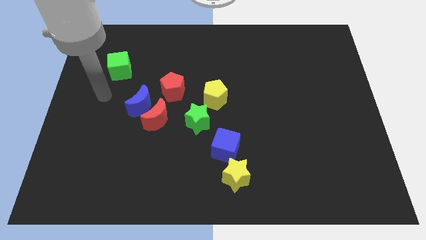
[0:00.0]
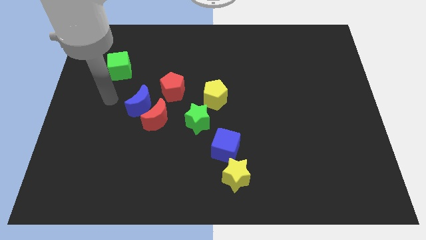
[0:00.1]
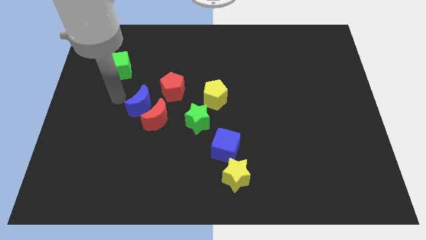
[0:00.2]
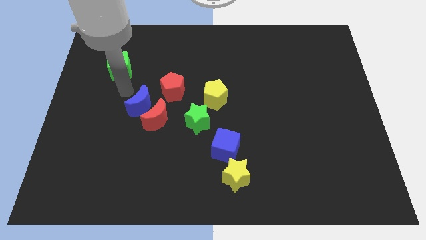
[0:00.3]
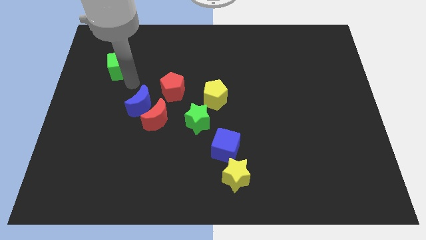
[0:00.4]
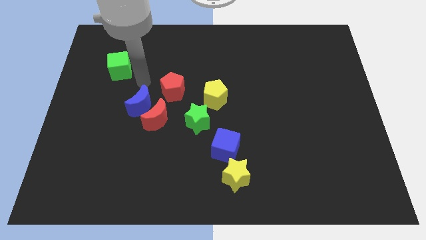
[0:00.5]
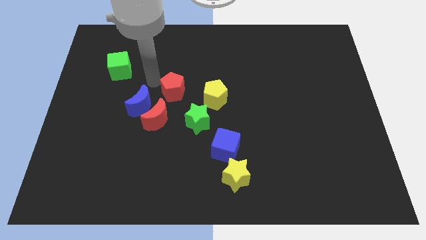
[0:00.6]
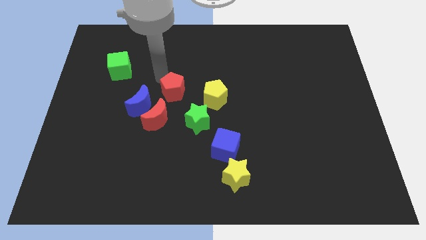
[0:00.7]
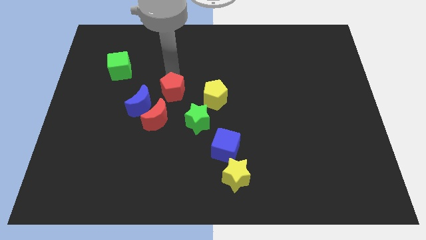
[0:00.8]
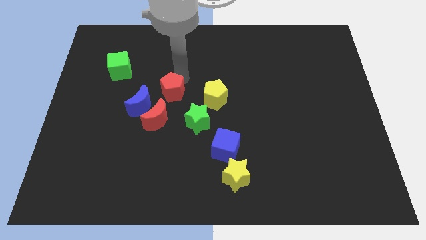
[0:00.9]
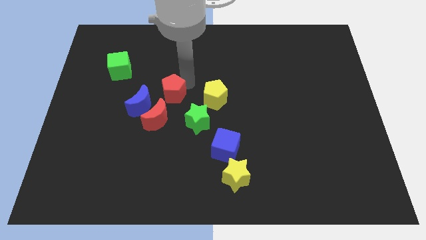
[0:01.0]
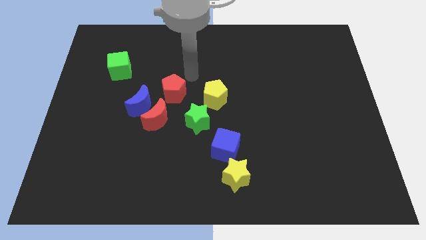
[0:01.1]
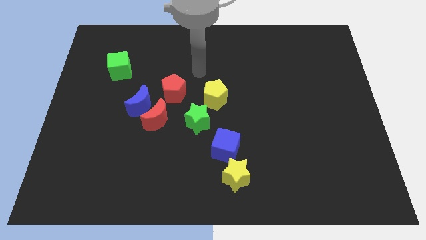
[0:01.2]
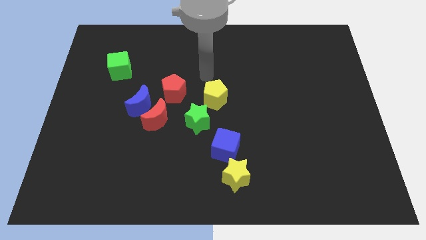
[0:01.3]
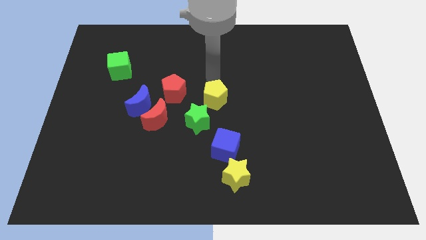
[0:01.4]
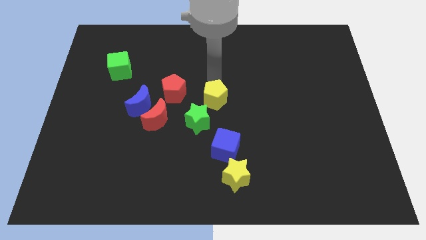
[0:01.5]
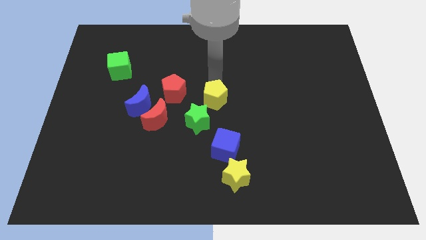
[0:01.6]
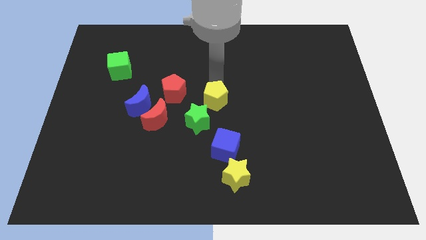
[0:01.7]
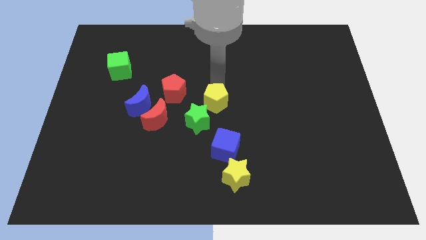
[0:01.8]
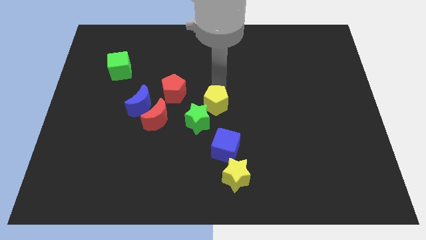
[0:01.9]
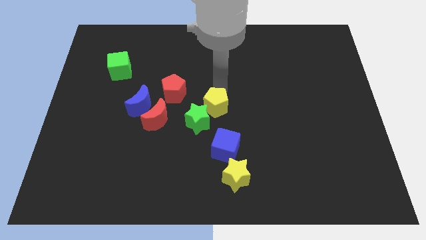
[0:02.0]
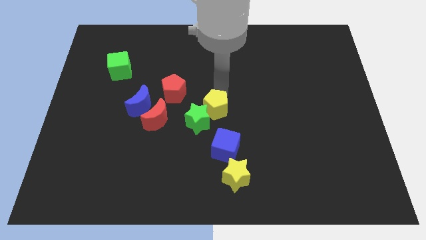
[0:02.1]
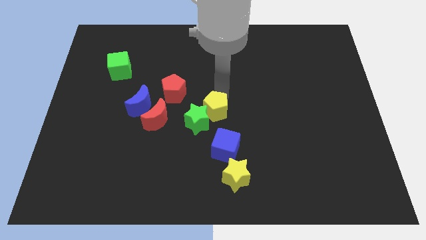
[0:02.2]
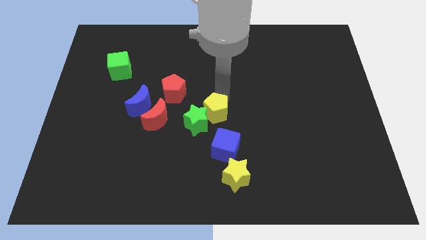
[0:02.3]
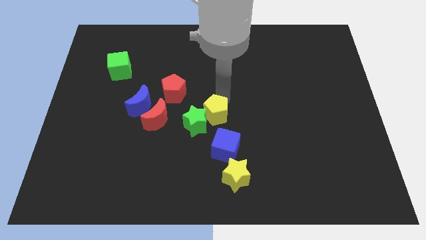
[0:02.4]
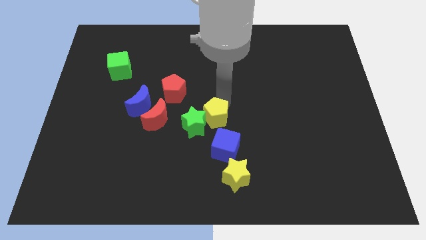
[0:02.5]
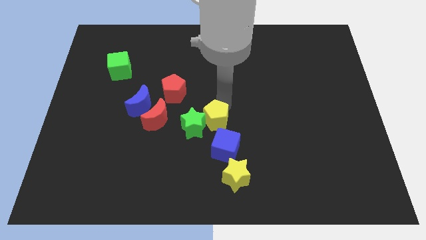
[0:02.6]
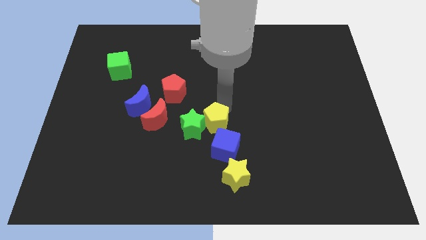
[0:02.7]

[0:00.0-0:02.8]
move the yellow pentagon a little bit down

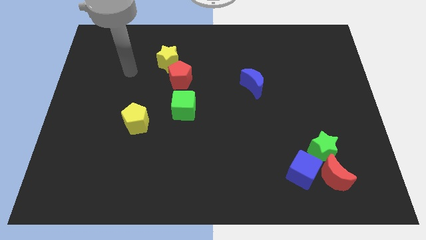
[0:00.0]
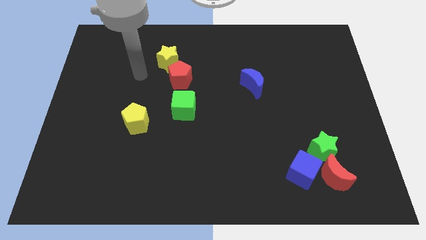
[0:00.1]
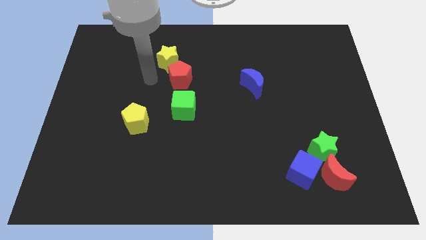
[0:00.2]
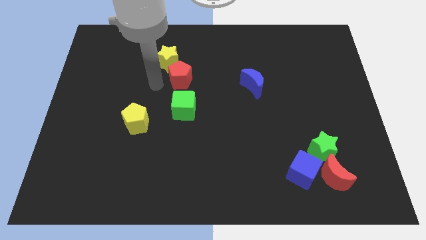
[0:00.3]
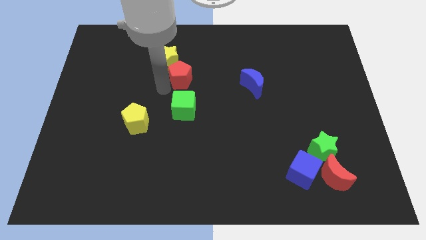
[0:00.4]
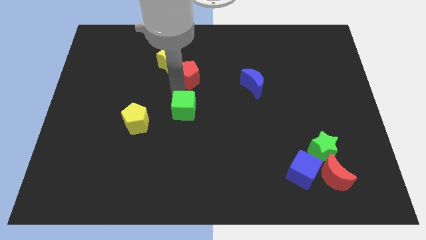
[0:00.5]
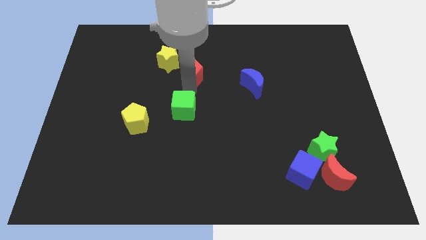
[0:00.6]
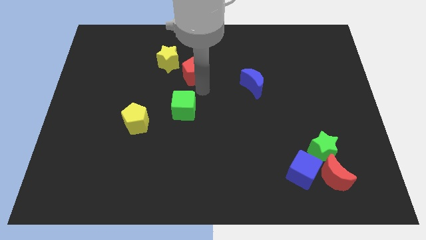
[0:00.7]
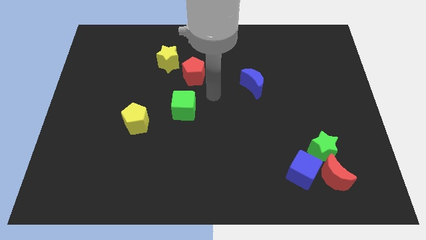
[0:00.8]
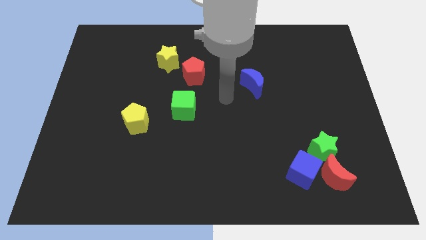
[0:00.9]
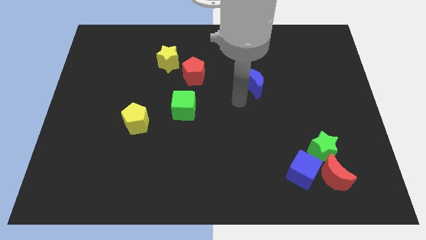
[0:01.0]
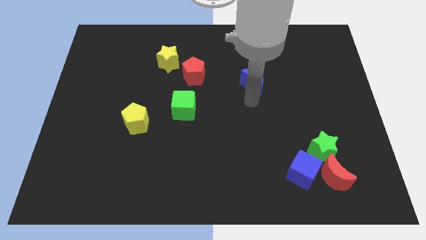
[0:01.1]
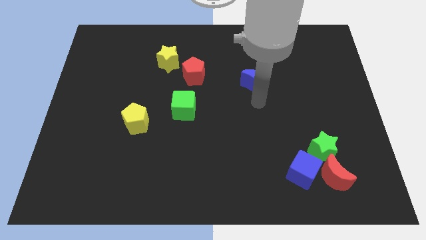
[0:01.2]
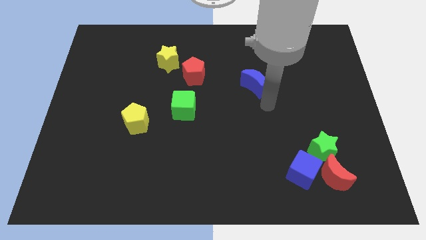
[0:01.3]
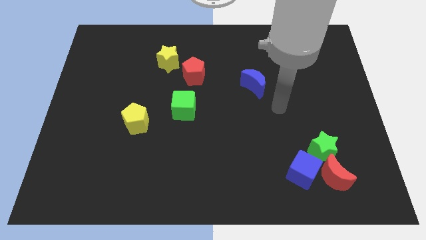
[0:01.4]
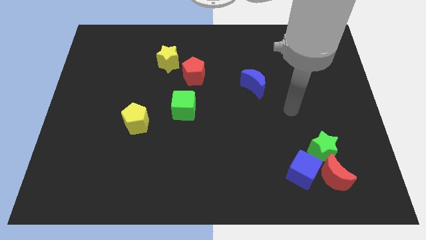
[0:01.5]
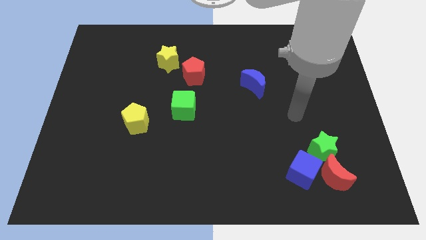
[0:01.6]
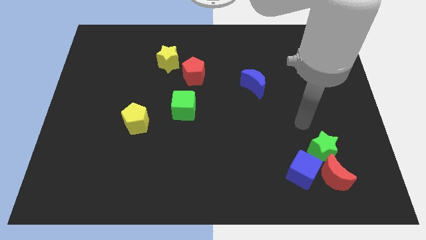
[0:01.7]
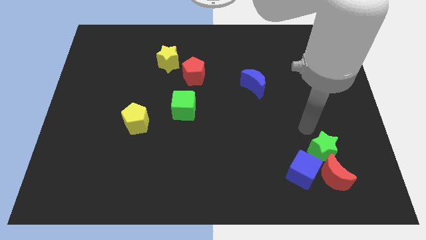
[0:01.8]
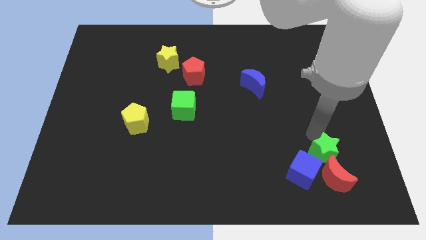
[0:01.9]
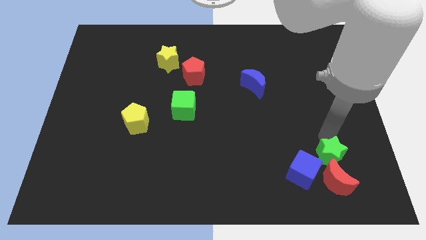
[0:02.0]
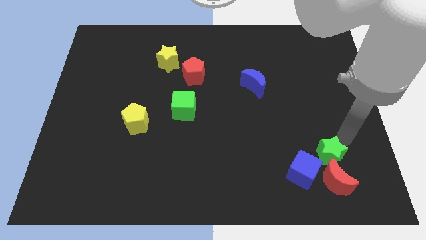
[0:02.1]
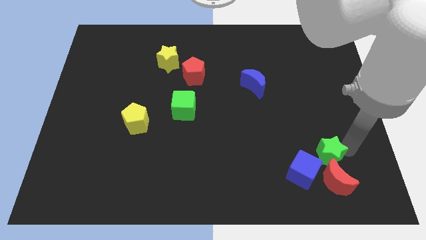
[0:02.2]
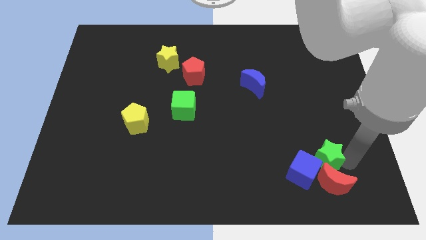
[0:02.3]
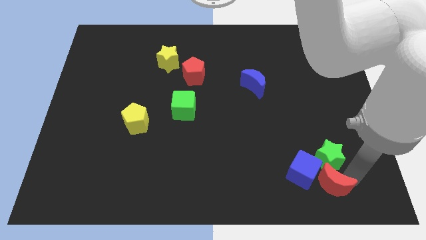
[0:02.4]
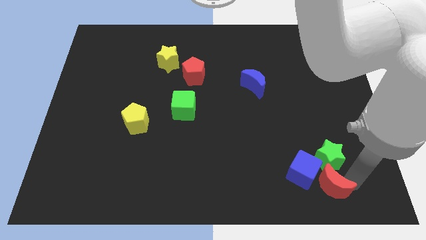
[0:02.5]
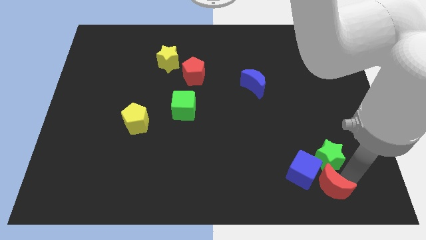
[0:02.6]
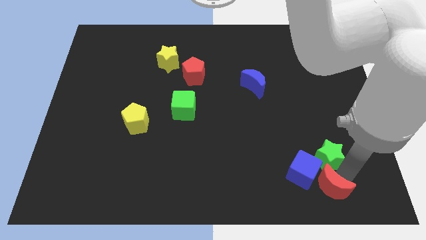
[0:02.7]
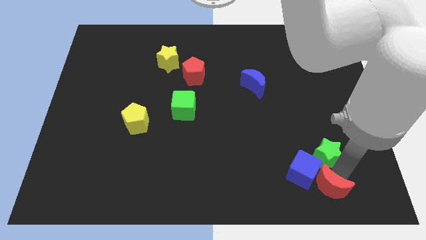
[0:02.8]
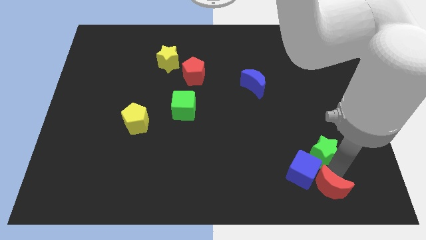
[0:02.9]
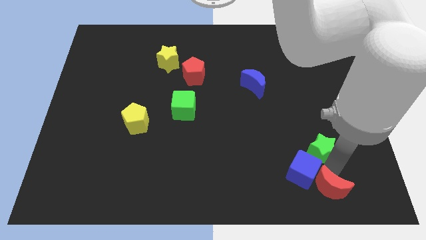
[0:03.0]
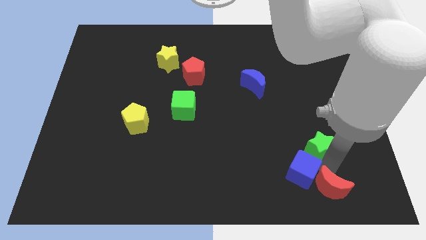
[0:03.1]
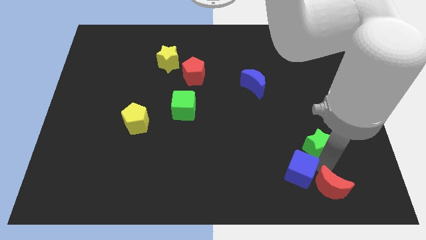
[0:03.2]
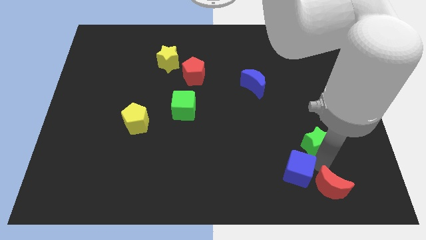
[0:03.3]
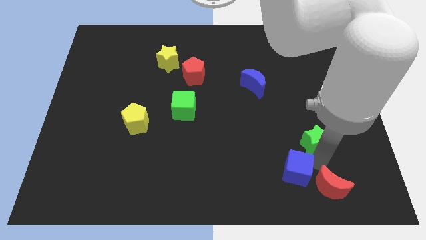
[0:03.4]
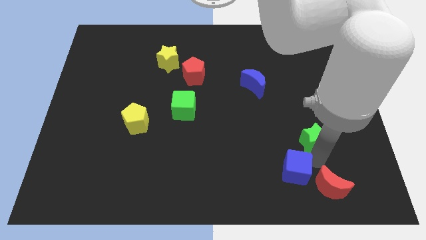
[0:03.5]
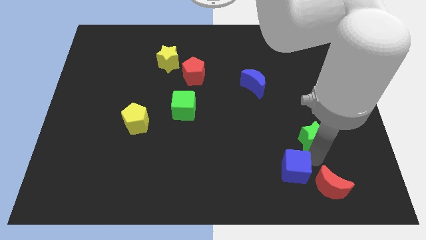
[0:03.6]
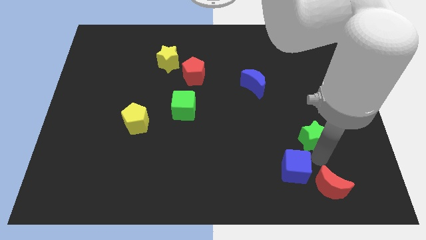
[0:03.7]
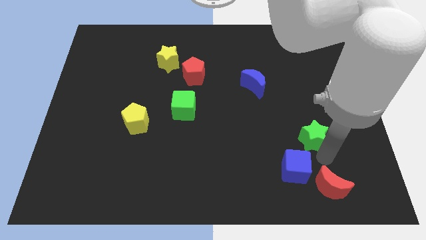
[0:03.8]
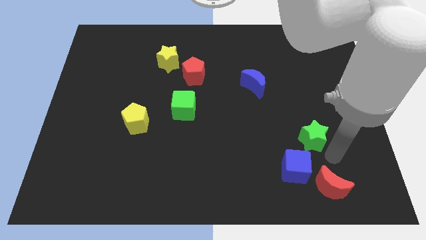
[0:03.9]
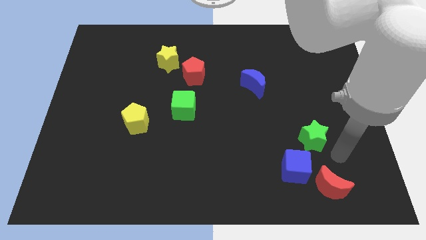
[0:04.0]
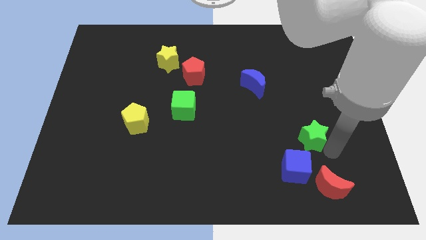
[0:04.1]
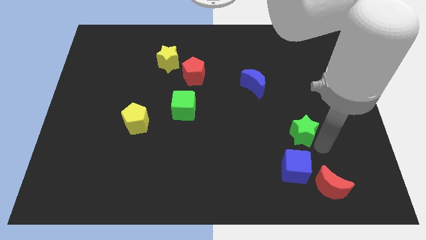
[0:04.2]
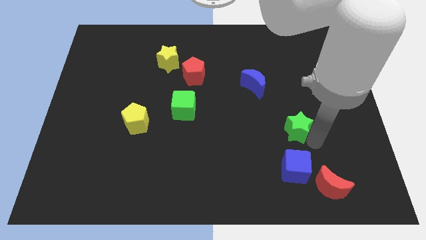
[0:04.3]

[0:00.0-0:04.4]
slide the green star slightly up and then left

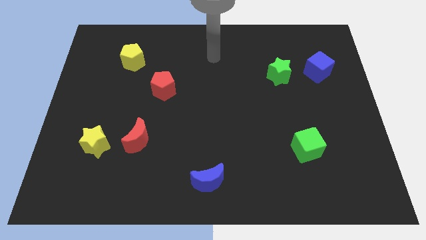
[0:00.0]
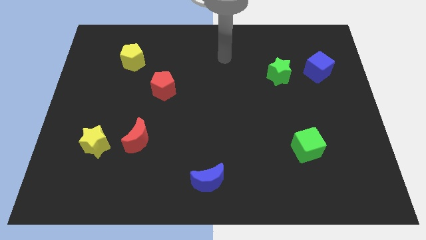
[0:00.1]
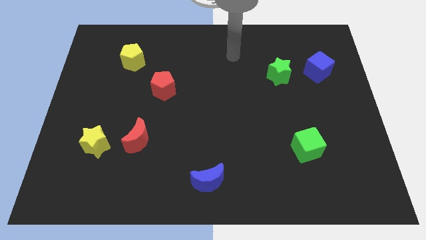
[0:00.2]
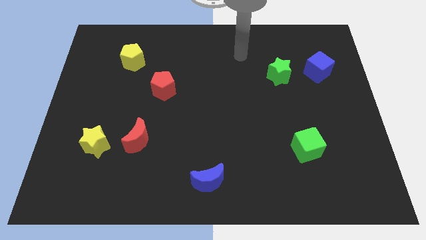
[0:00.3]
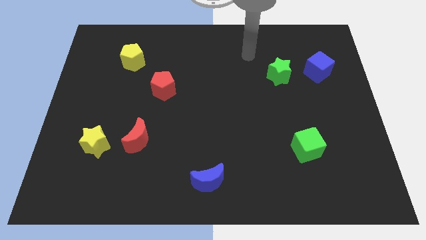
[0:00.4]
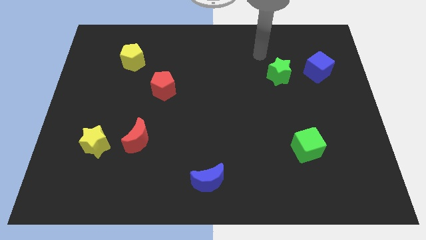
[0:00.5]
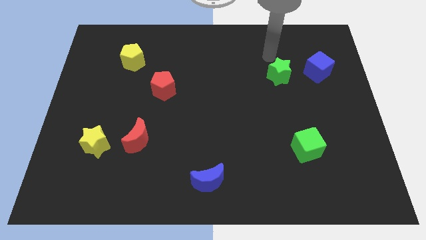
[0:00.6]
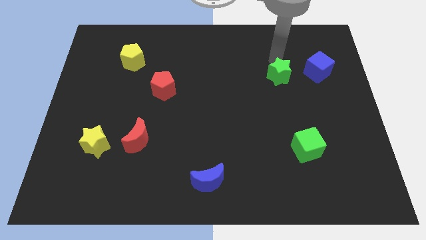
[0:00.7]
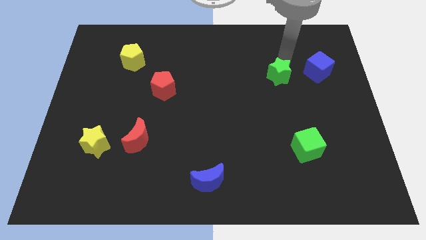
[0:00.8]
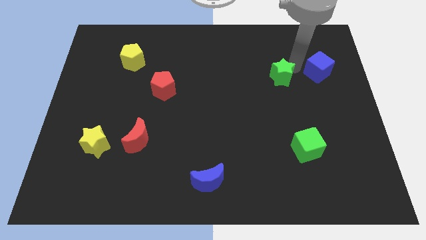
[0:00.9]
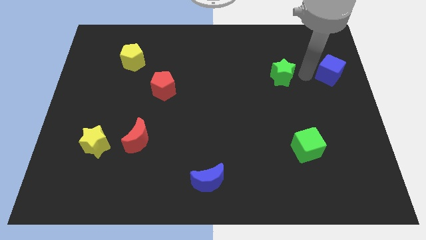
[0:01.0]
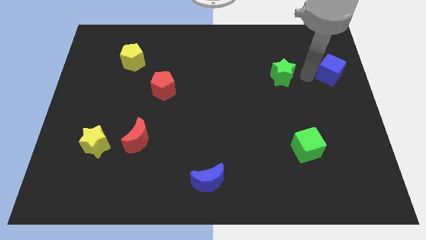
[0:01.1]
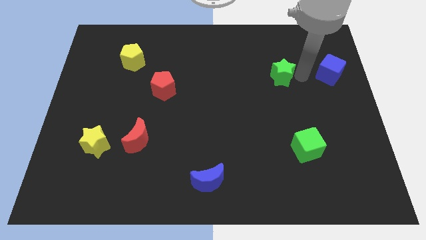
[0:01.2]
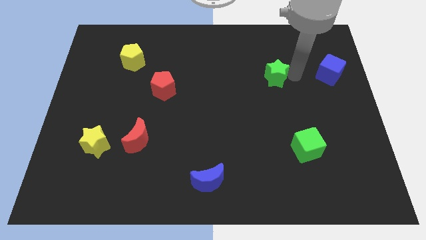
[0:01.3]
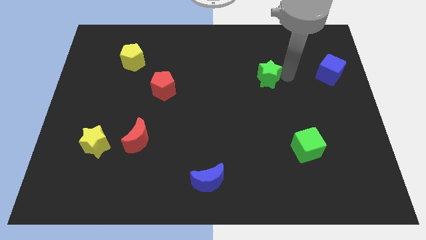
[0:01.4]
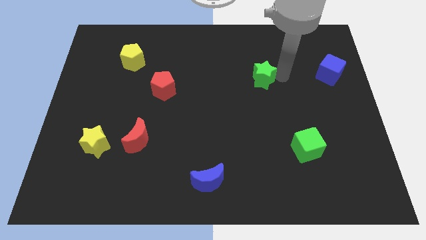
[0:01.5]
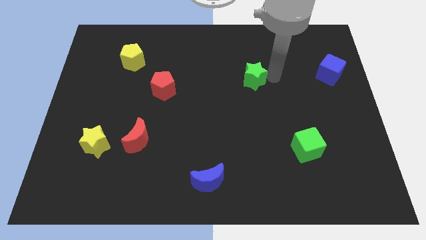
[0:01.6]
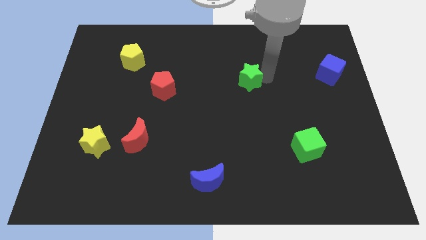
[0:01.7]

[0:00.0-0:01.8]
slightly move the green star left
